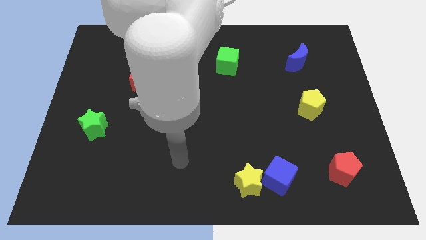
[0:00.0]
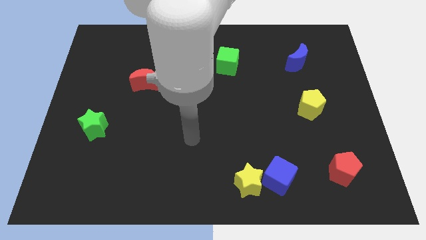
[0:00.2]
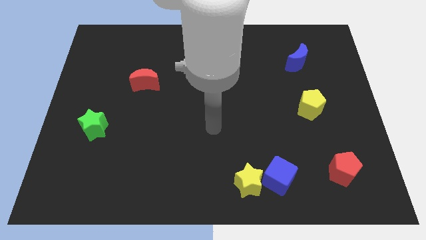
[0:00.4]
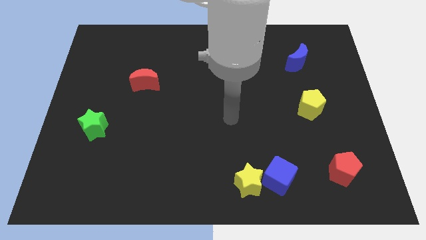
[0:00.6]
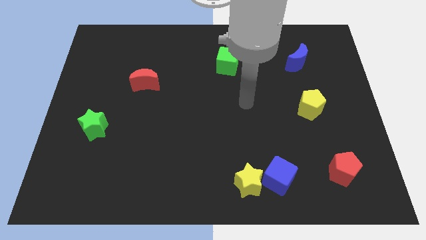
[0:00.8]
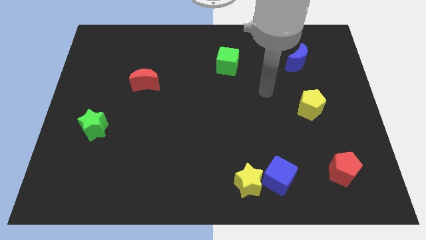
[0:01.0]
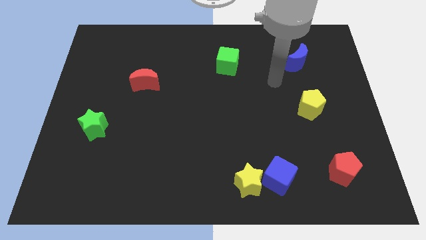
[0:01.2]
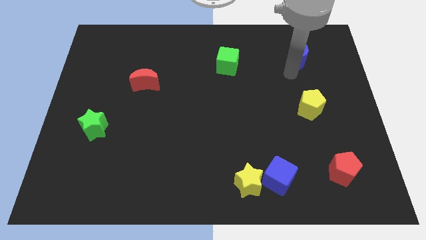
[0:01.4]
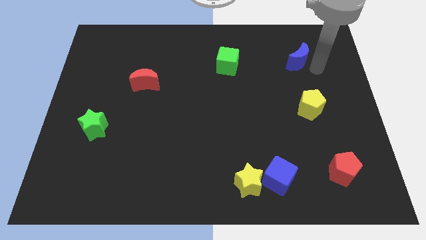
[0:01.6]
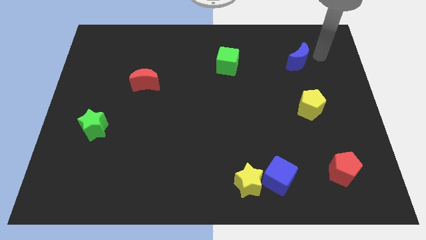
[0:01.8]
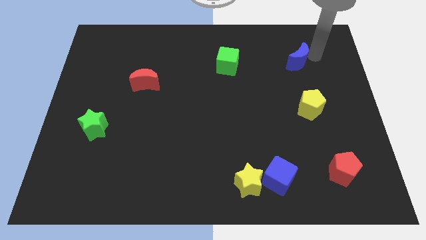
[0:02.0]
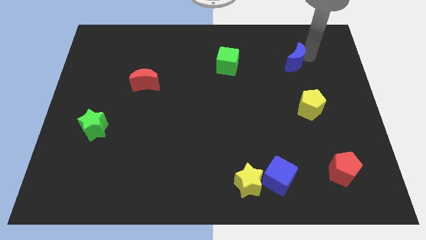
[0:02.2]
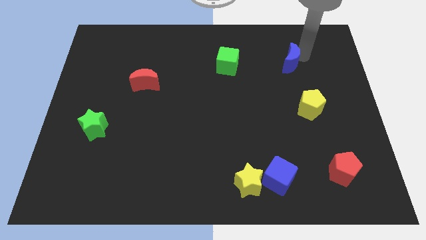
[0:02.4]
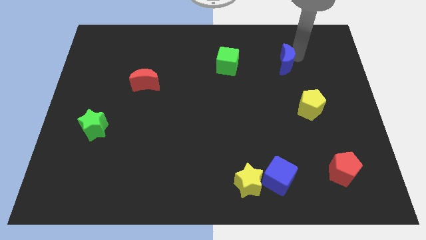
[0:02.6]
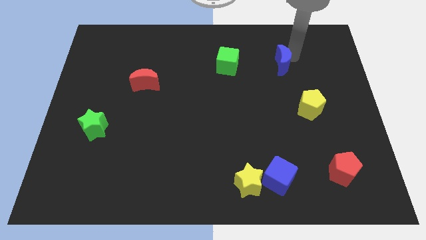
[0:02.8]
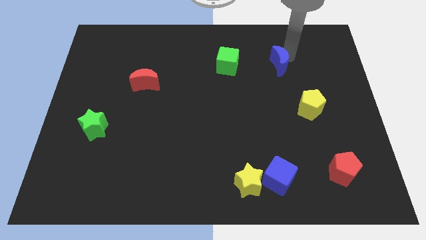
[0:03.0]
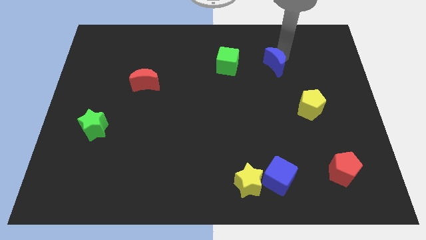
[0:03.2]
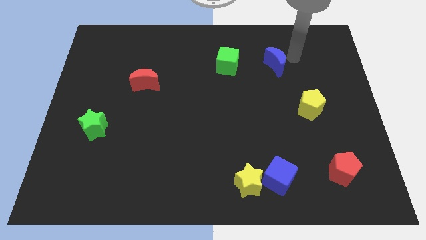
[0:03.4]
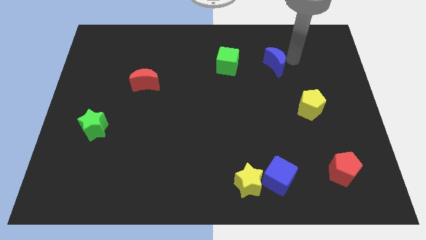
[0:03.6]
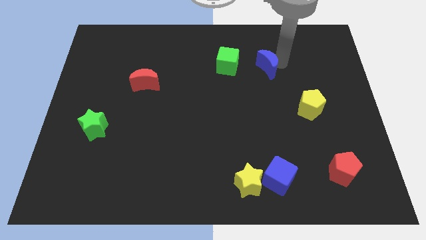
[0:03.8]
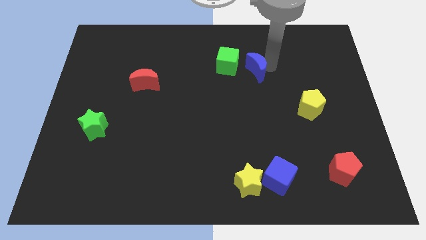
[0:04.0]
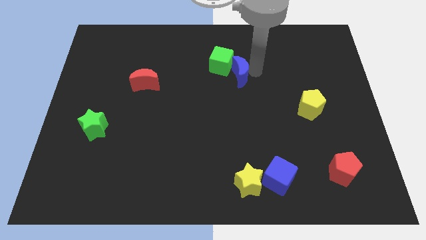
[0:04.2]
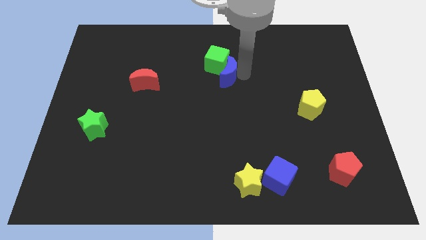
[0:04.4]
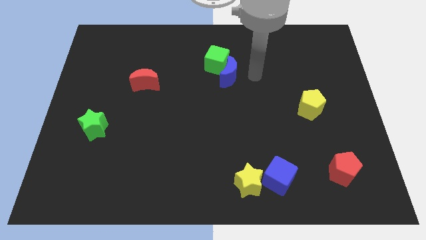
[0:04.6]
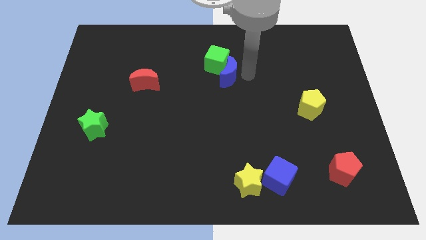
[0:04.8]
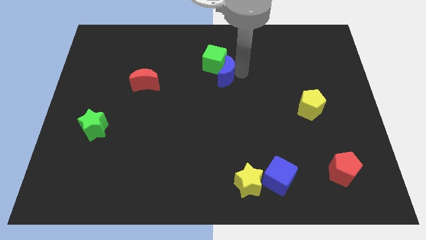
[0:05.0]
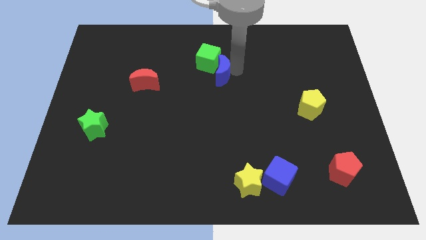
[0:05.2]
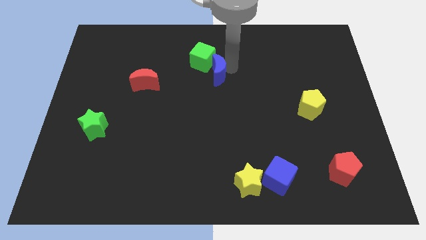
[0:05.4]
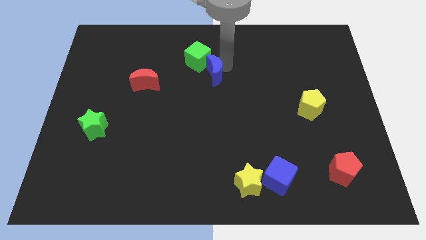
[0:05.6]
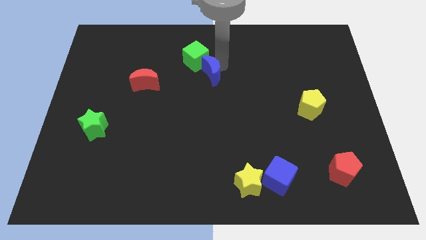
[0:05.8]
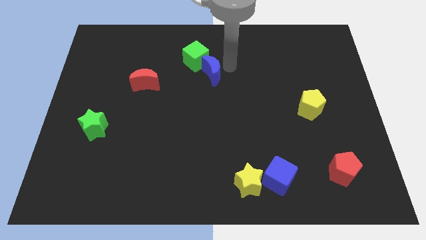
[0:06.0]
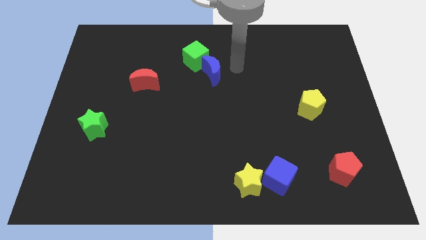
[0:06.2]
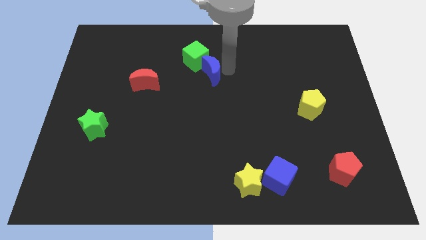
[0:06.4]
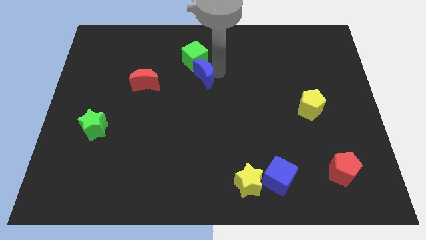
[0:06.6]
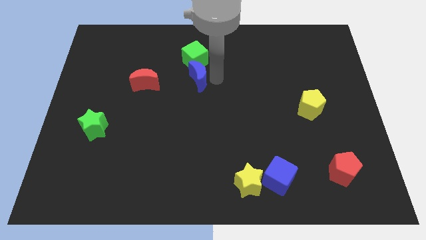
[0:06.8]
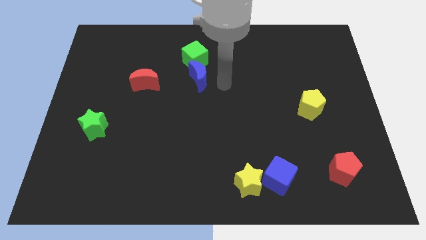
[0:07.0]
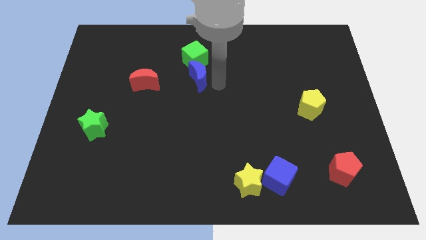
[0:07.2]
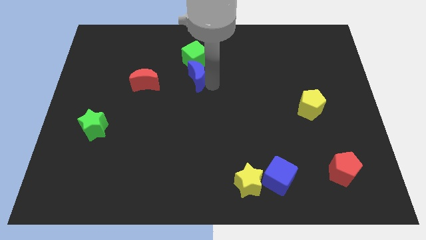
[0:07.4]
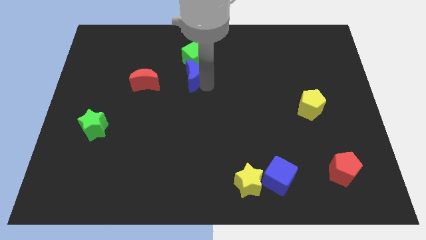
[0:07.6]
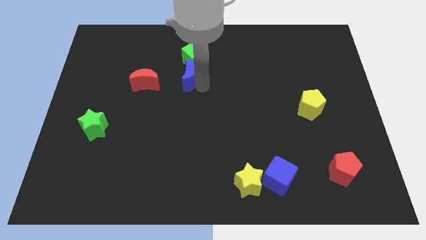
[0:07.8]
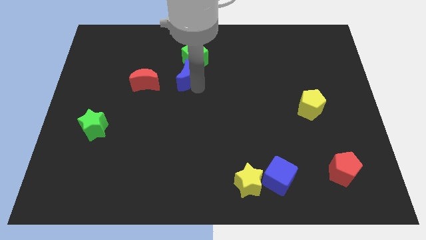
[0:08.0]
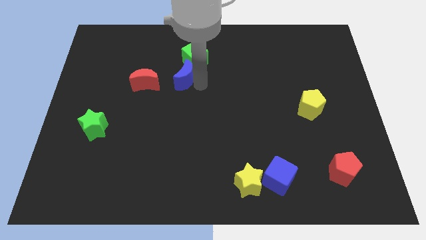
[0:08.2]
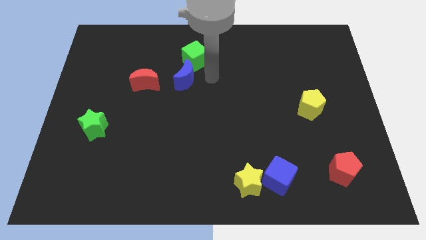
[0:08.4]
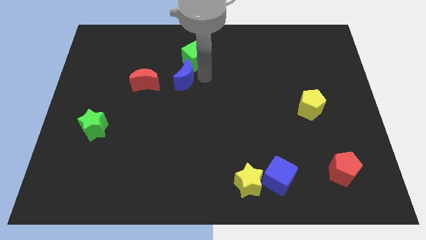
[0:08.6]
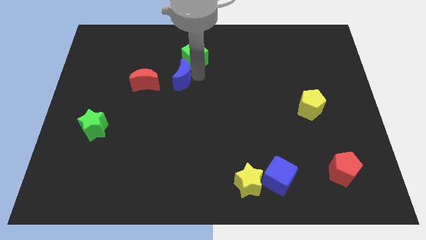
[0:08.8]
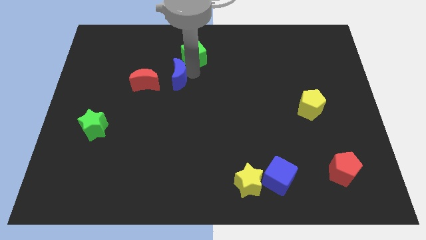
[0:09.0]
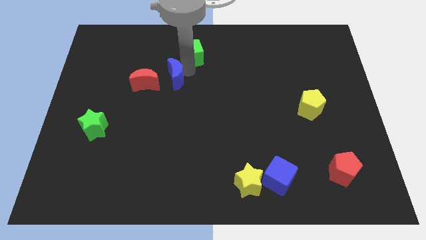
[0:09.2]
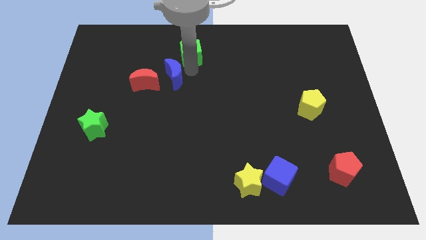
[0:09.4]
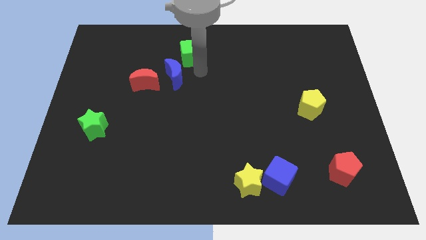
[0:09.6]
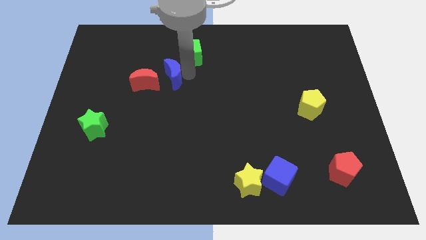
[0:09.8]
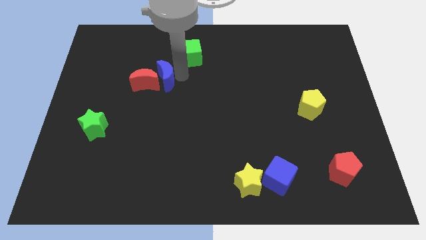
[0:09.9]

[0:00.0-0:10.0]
put the blue moon next to the red moon

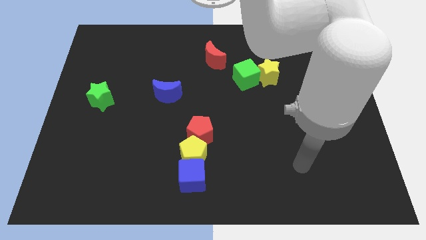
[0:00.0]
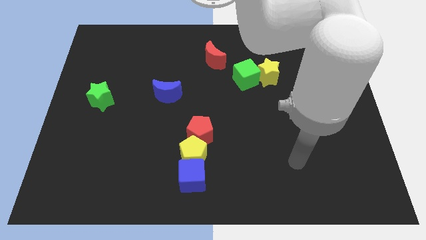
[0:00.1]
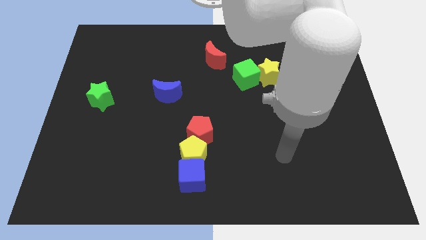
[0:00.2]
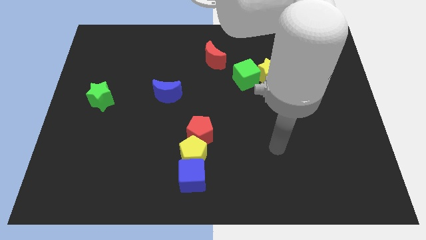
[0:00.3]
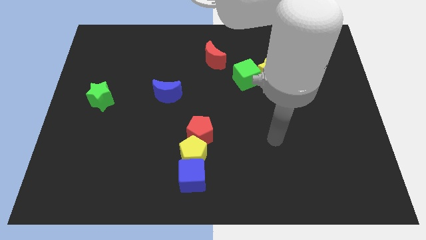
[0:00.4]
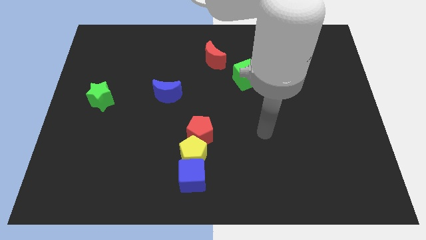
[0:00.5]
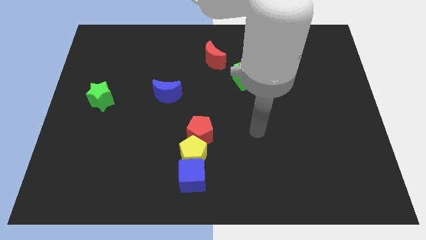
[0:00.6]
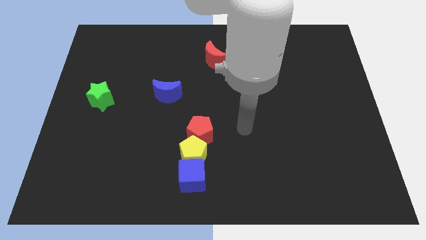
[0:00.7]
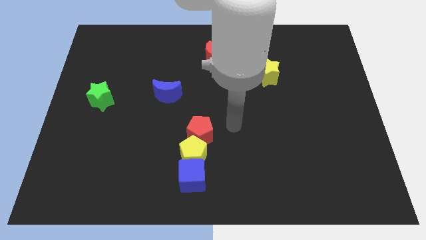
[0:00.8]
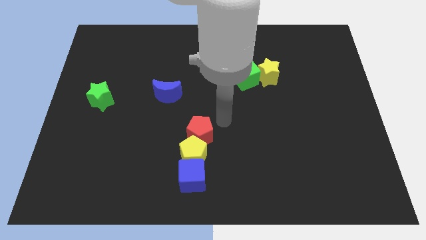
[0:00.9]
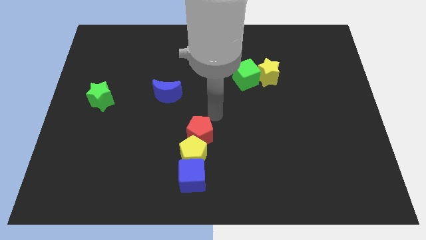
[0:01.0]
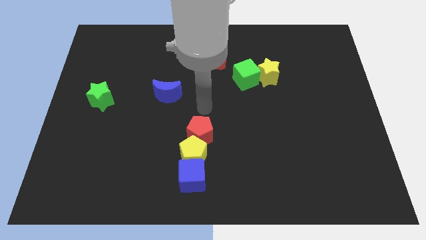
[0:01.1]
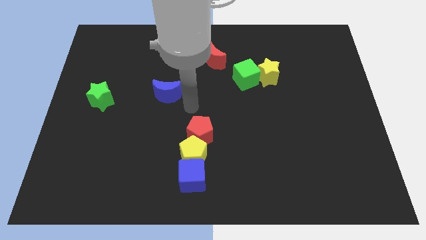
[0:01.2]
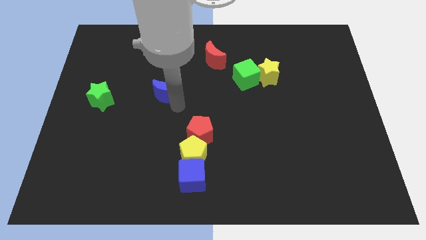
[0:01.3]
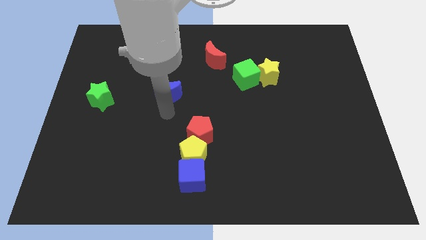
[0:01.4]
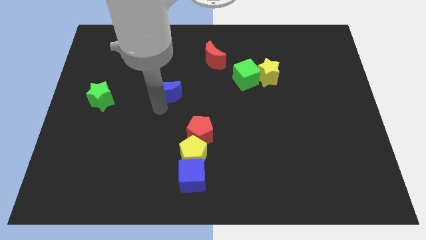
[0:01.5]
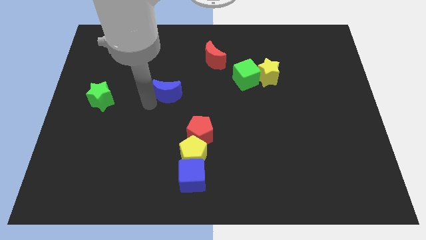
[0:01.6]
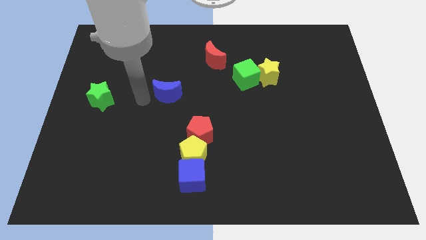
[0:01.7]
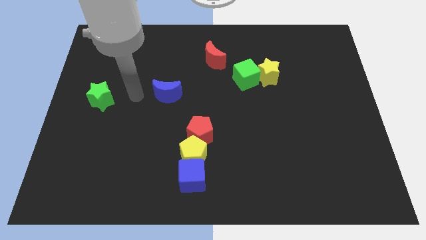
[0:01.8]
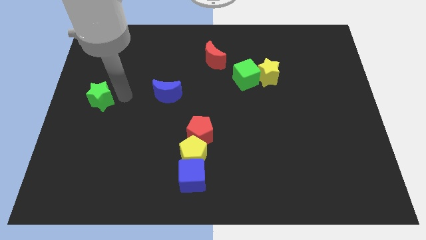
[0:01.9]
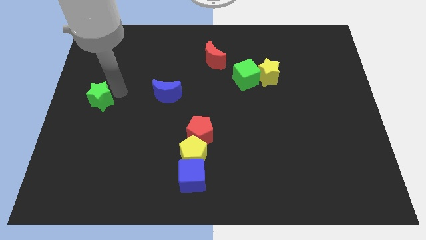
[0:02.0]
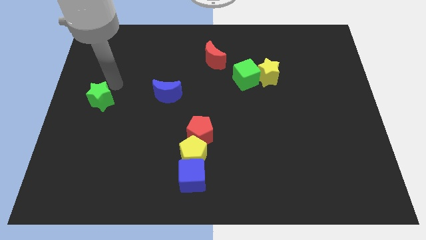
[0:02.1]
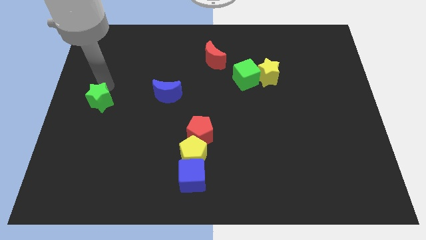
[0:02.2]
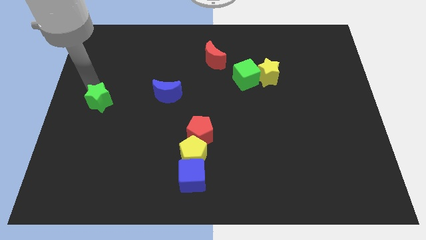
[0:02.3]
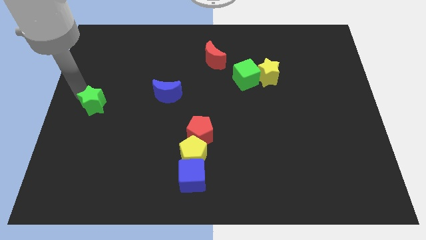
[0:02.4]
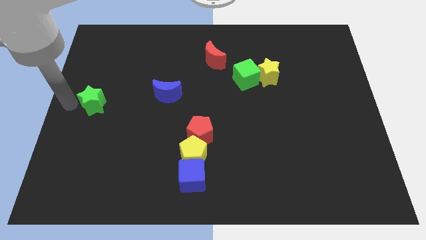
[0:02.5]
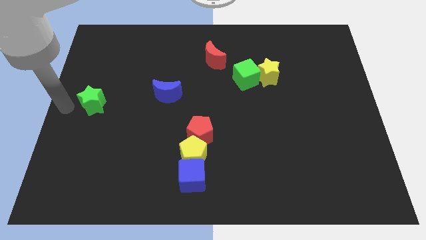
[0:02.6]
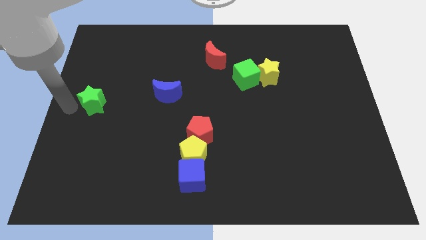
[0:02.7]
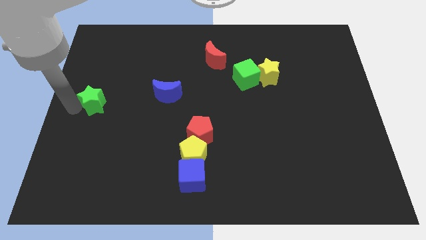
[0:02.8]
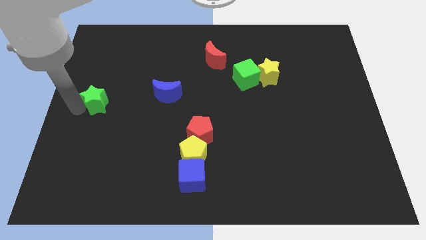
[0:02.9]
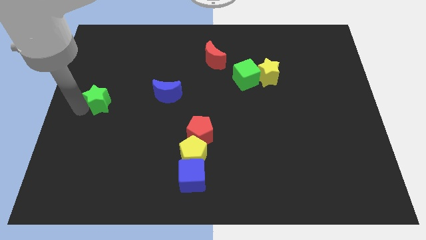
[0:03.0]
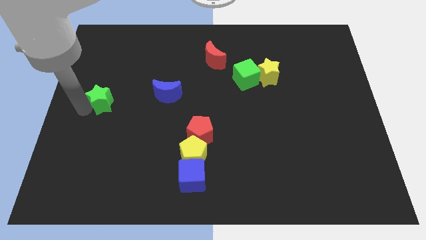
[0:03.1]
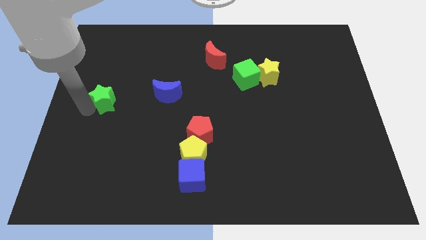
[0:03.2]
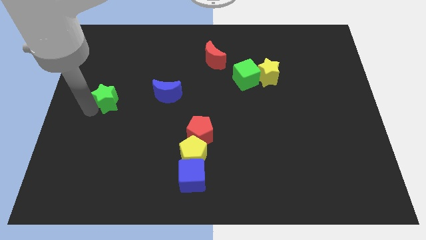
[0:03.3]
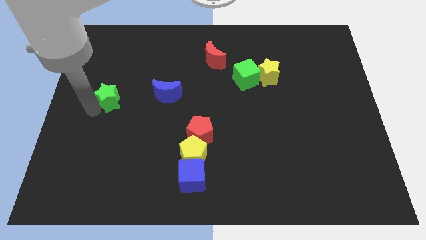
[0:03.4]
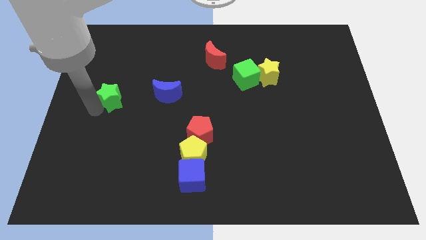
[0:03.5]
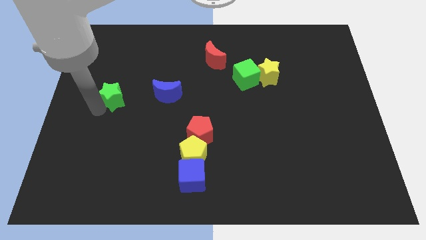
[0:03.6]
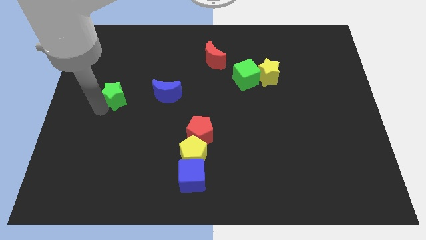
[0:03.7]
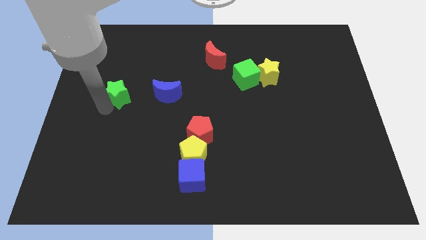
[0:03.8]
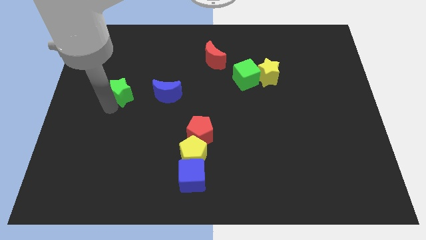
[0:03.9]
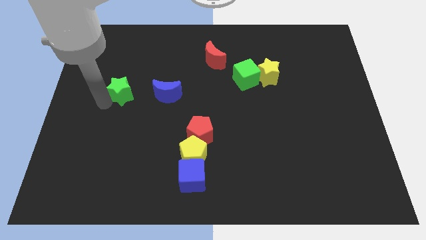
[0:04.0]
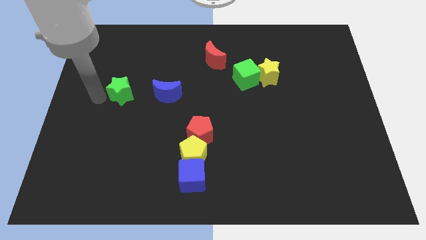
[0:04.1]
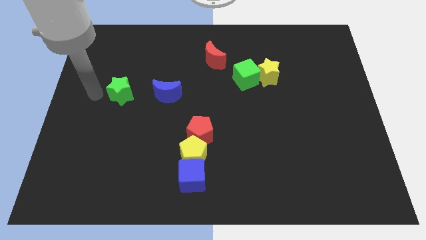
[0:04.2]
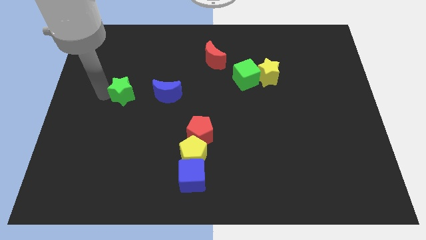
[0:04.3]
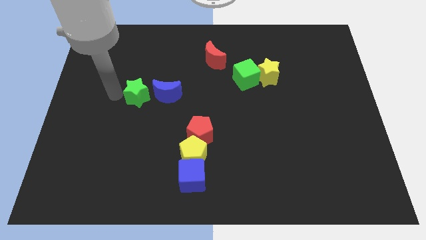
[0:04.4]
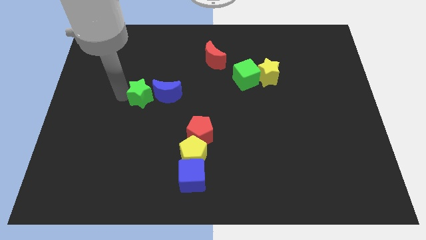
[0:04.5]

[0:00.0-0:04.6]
slide the green star next to the blue moon
